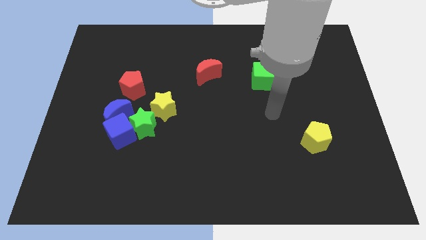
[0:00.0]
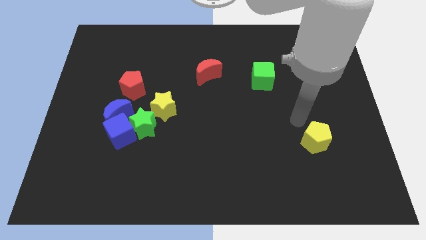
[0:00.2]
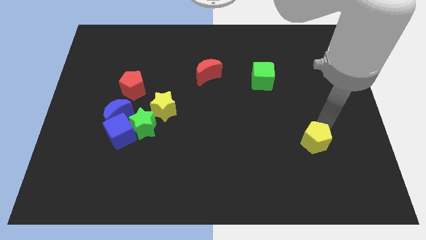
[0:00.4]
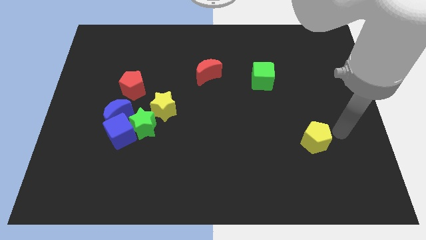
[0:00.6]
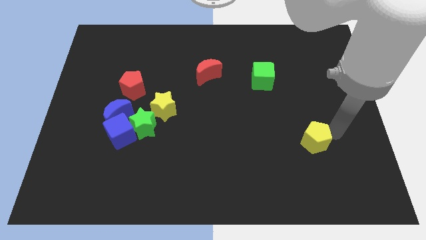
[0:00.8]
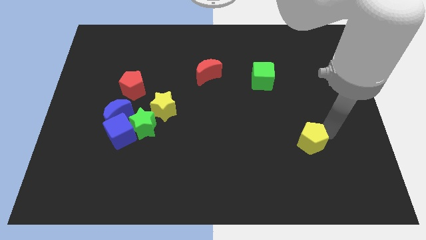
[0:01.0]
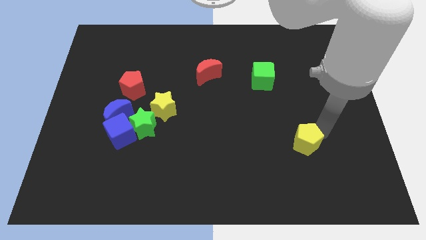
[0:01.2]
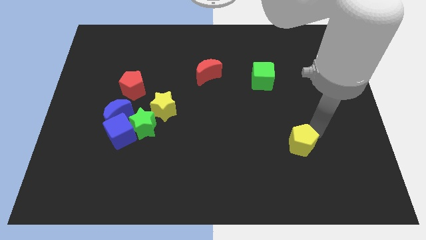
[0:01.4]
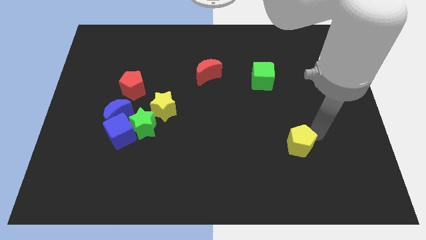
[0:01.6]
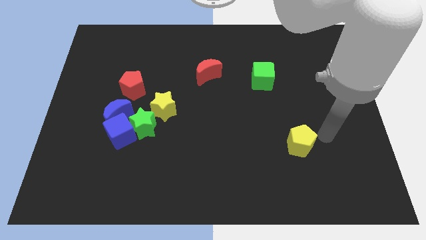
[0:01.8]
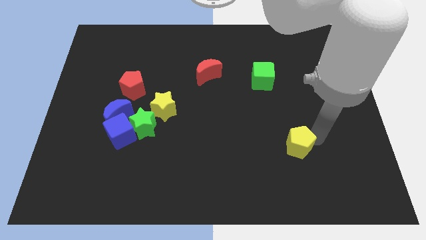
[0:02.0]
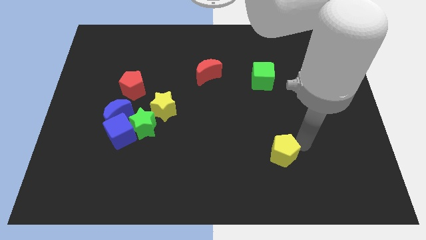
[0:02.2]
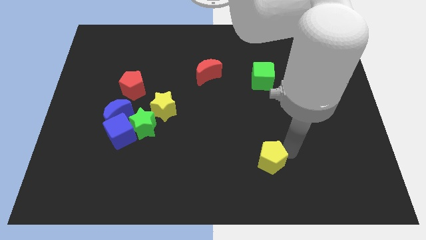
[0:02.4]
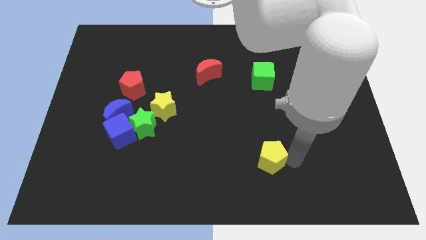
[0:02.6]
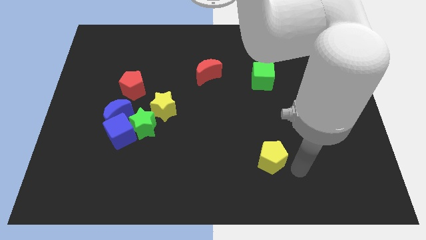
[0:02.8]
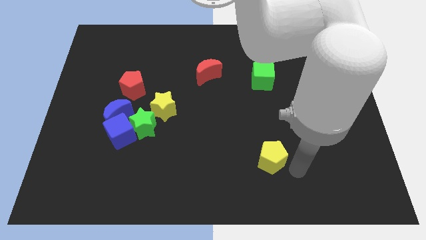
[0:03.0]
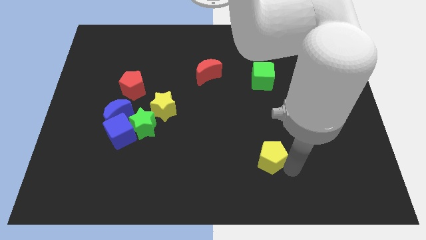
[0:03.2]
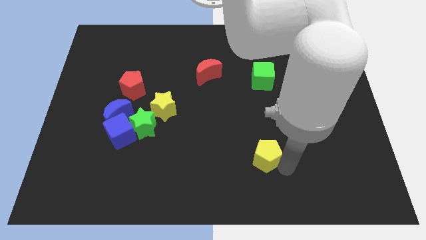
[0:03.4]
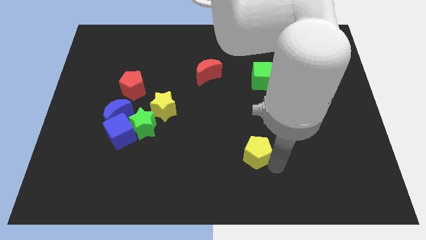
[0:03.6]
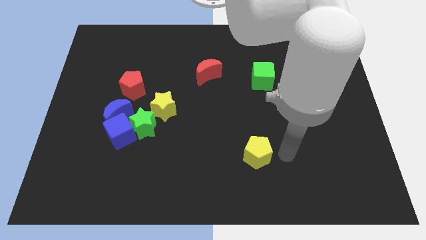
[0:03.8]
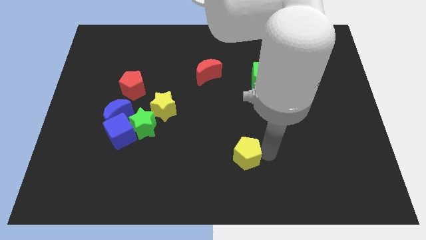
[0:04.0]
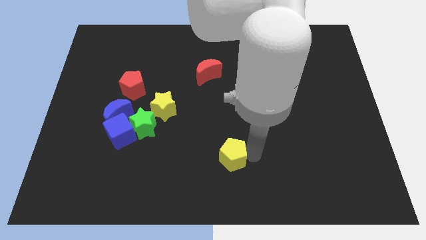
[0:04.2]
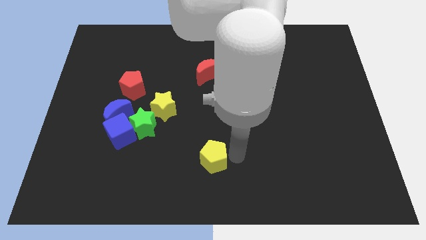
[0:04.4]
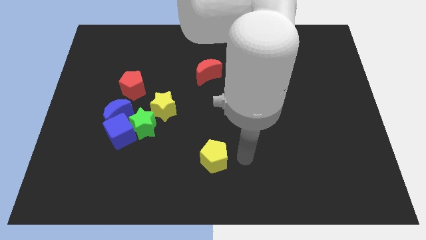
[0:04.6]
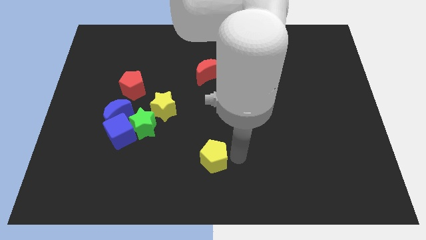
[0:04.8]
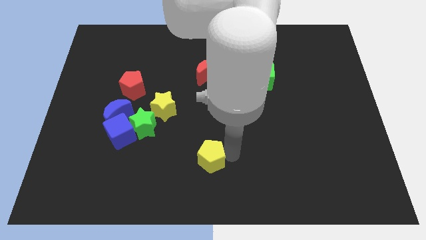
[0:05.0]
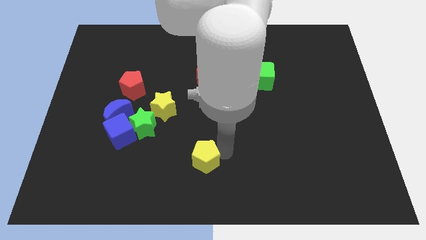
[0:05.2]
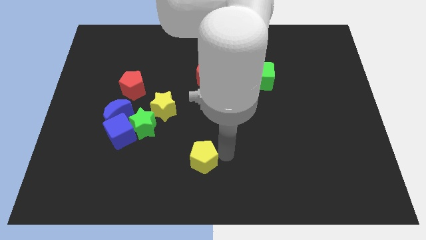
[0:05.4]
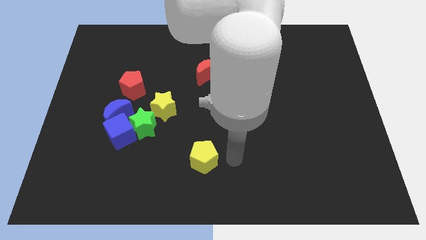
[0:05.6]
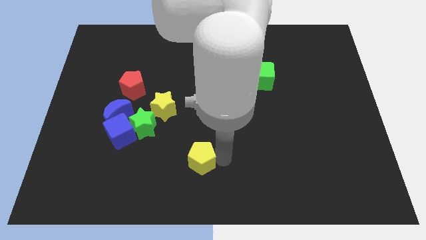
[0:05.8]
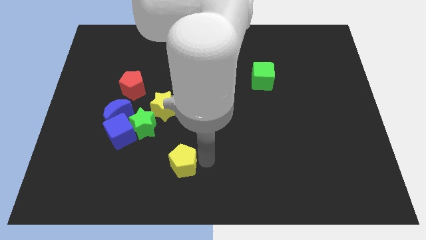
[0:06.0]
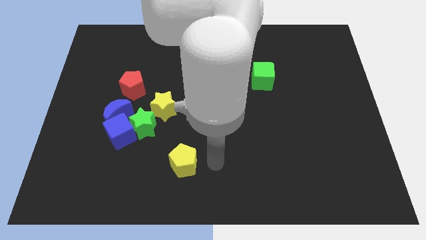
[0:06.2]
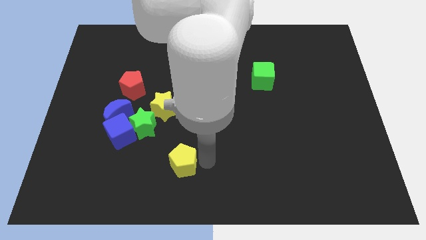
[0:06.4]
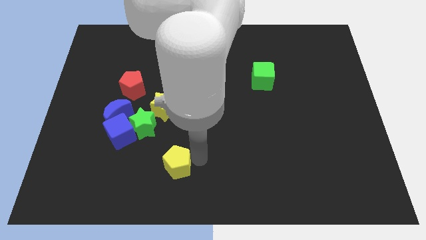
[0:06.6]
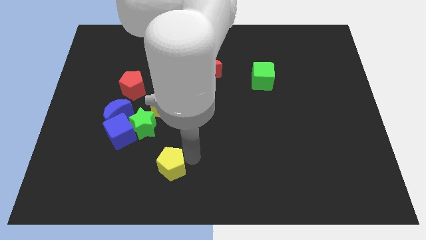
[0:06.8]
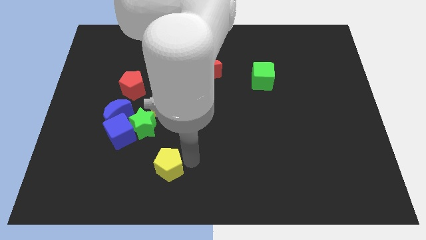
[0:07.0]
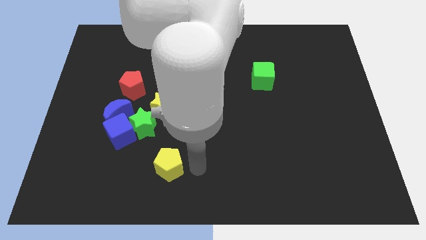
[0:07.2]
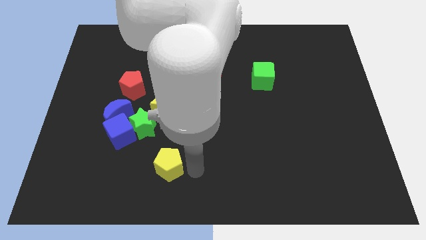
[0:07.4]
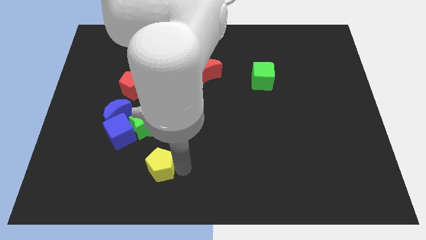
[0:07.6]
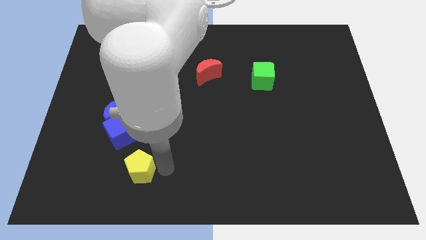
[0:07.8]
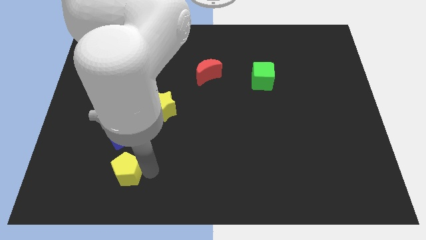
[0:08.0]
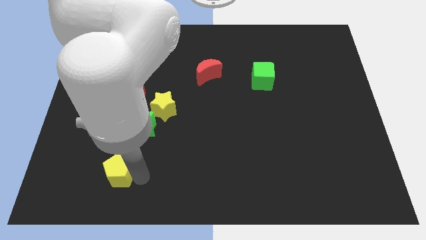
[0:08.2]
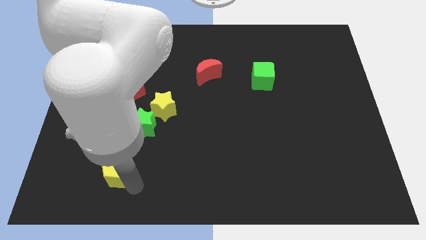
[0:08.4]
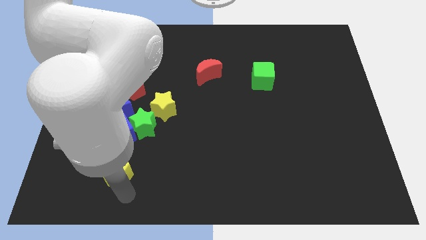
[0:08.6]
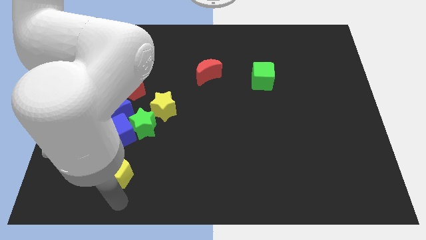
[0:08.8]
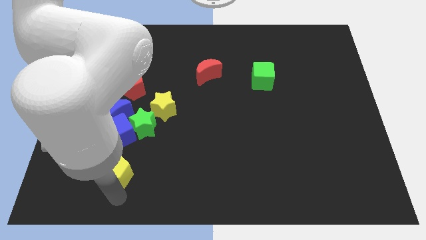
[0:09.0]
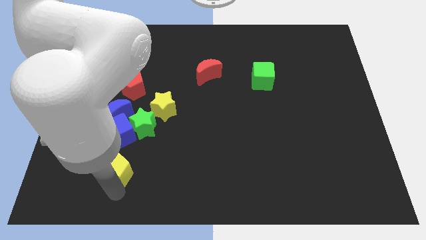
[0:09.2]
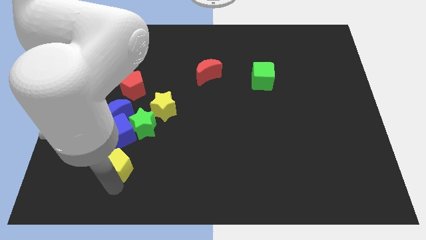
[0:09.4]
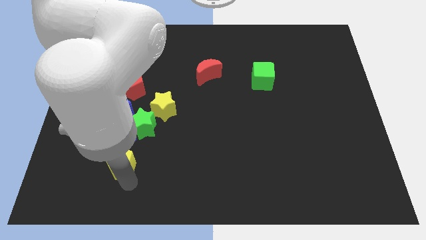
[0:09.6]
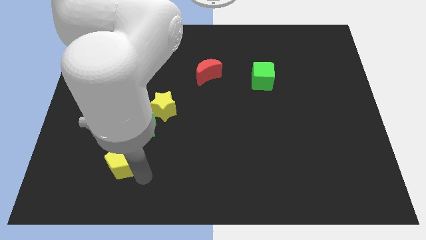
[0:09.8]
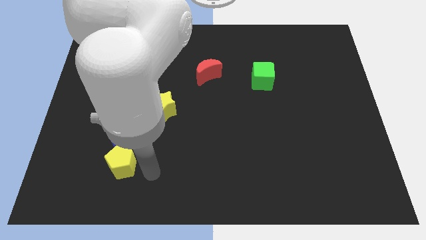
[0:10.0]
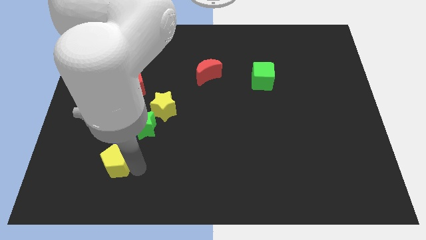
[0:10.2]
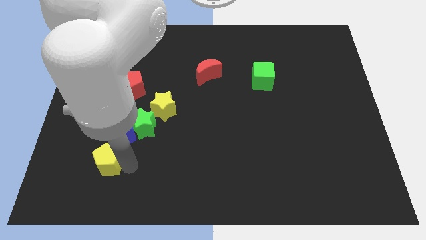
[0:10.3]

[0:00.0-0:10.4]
put the yellow pentagon to the bottom left side of the blue cube

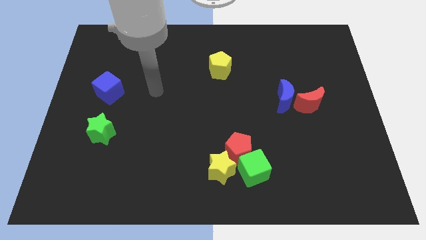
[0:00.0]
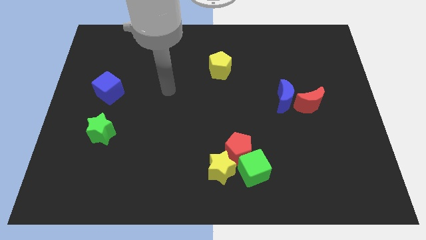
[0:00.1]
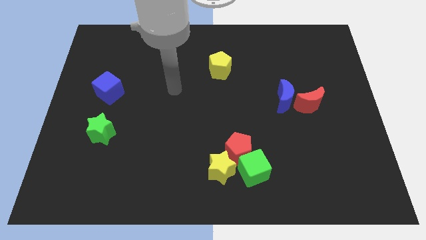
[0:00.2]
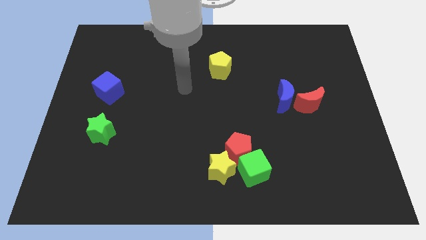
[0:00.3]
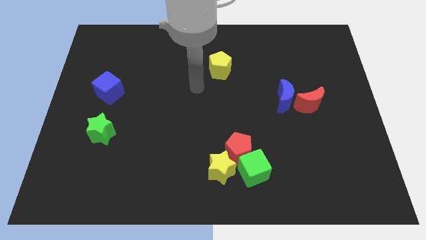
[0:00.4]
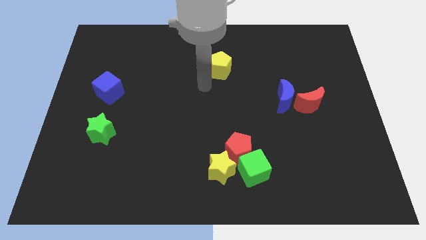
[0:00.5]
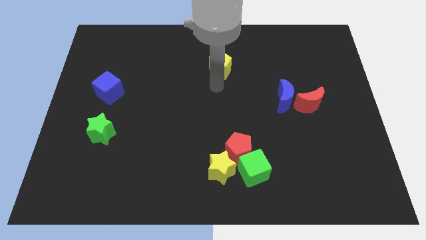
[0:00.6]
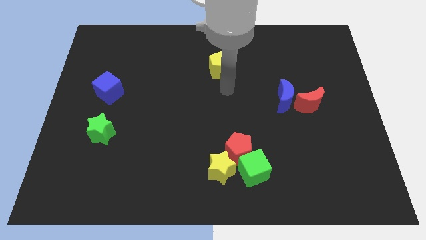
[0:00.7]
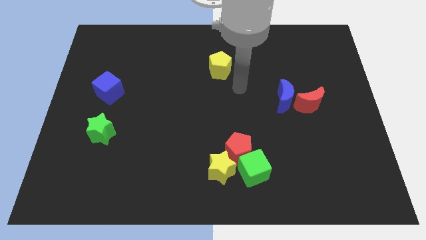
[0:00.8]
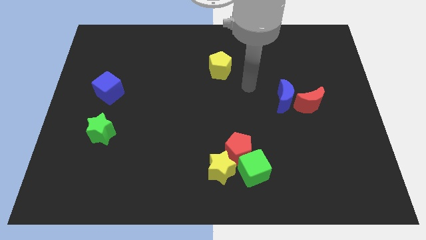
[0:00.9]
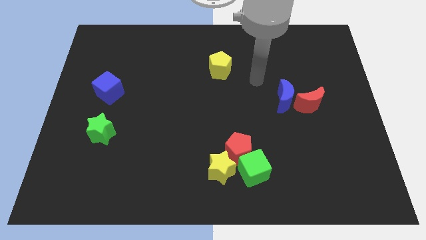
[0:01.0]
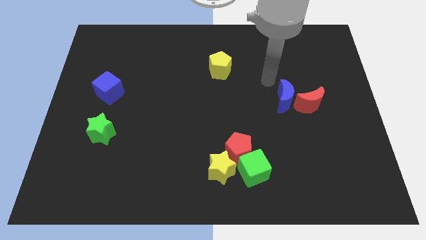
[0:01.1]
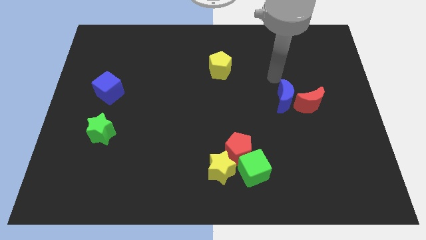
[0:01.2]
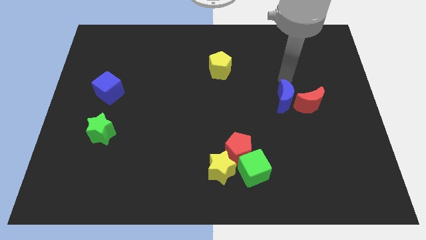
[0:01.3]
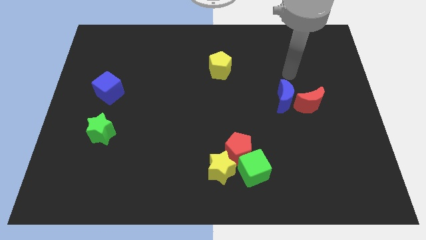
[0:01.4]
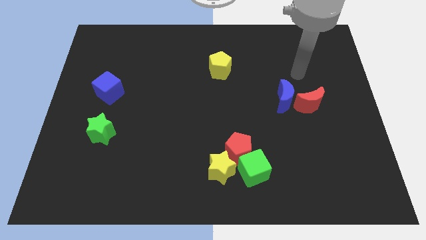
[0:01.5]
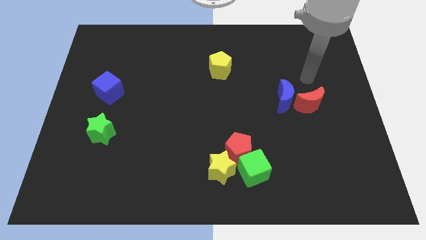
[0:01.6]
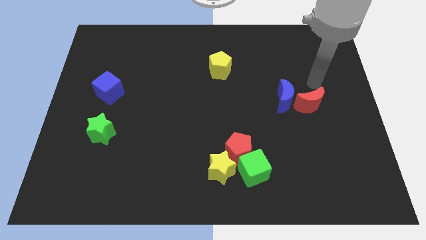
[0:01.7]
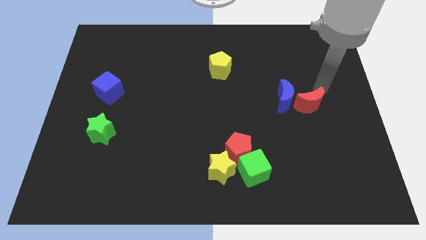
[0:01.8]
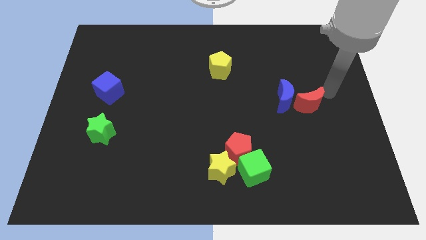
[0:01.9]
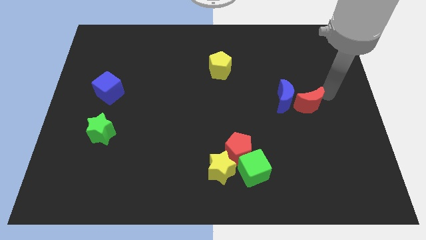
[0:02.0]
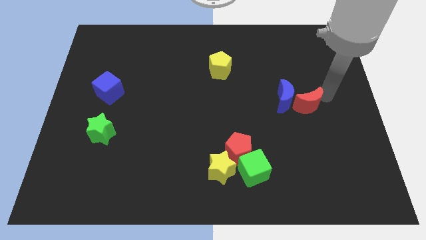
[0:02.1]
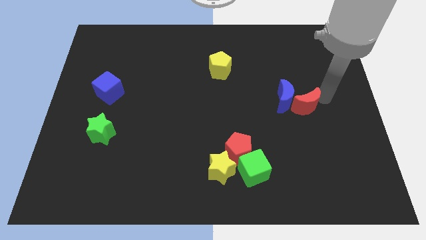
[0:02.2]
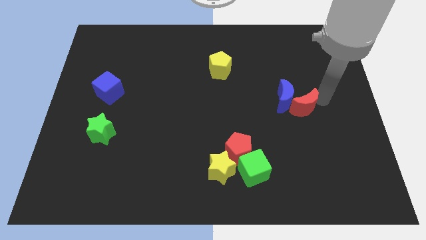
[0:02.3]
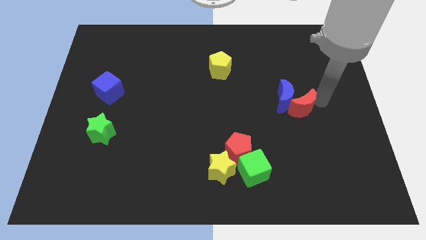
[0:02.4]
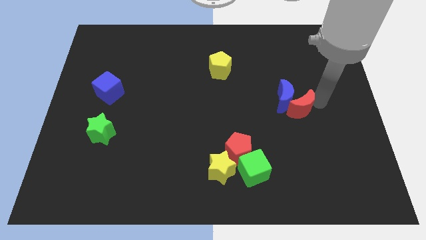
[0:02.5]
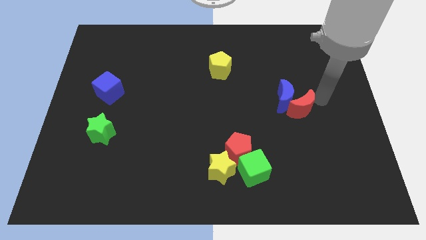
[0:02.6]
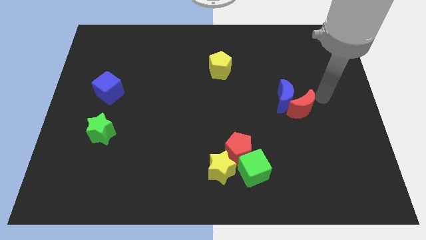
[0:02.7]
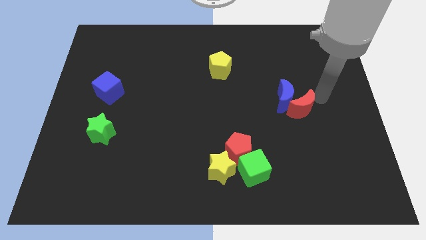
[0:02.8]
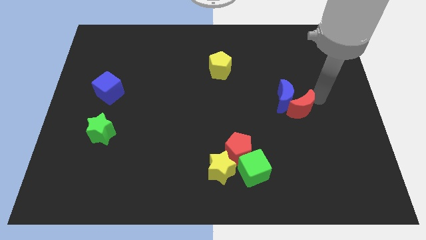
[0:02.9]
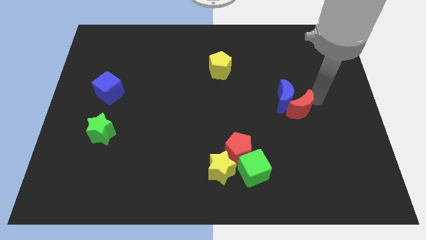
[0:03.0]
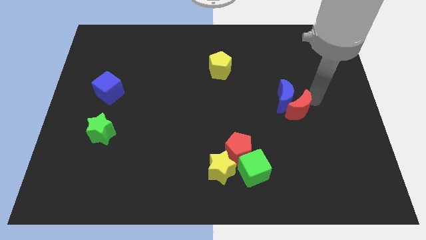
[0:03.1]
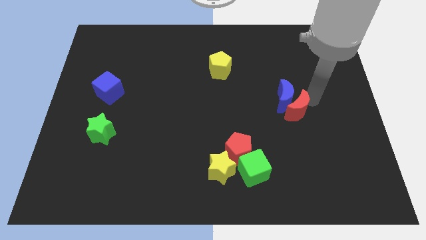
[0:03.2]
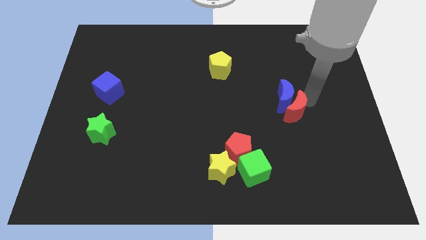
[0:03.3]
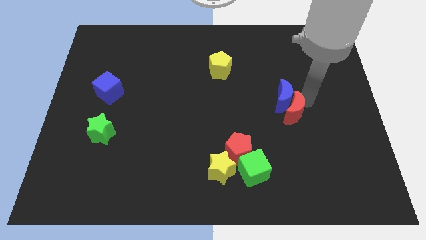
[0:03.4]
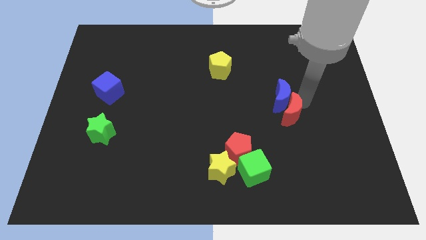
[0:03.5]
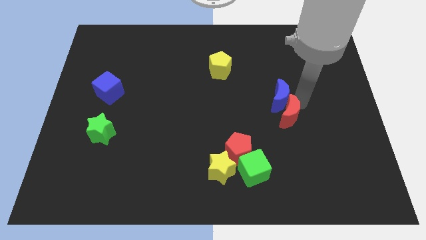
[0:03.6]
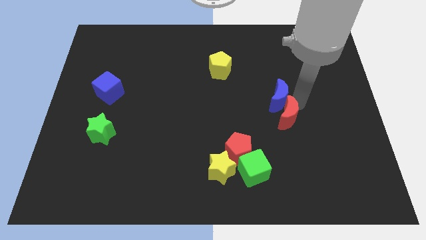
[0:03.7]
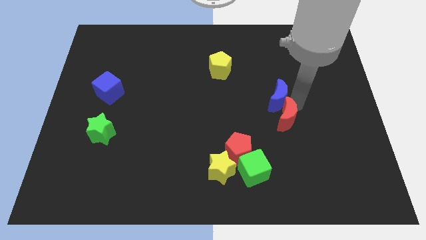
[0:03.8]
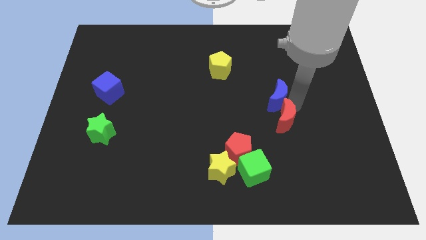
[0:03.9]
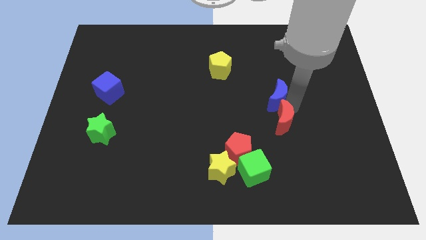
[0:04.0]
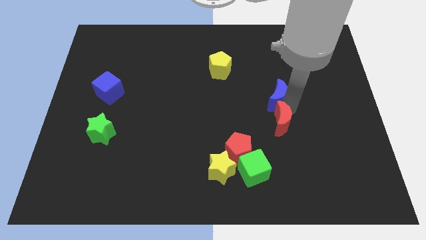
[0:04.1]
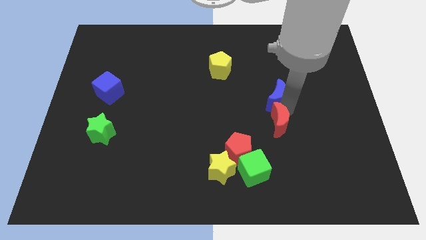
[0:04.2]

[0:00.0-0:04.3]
slide the red moon to the top right of the red pentagon
